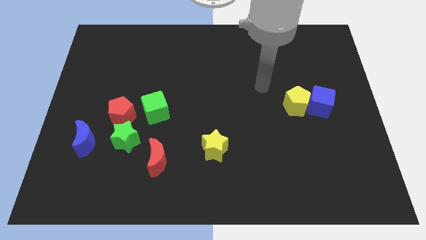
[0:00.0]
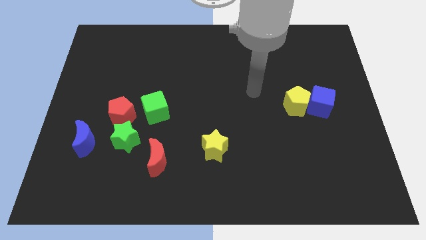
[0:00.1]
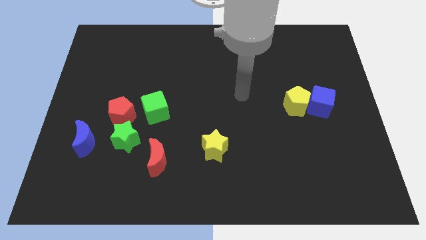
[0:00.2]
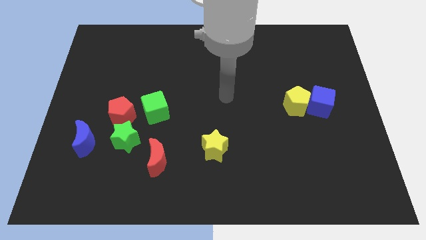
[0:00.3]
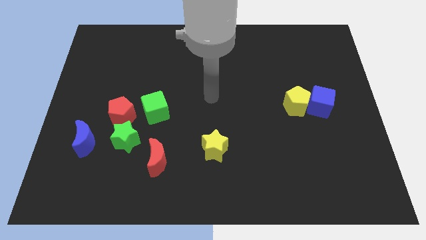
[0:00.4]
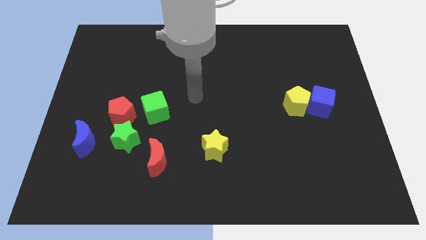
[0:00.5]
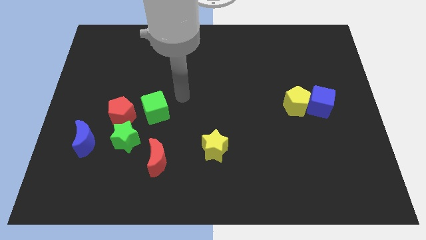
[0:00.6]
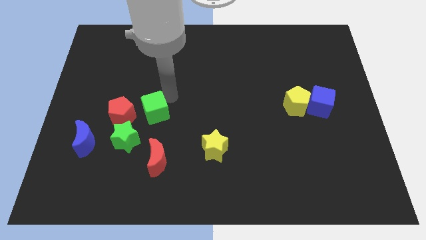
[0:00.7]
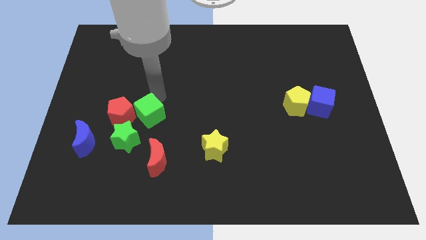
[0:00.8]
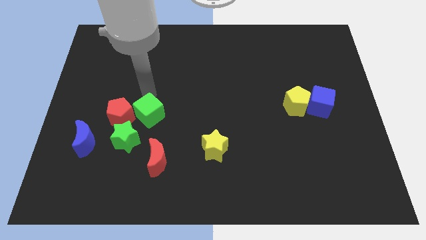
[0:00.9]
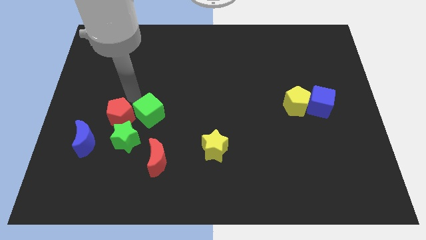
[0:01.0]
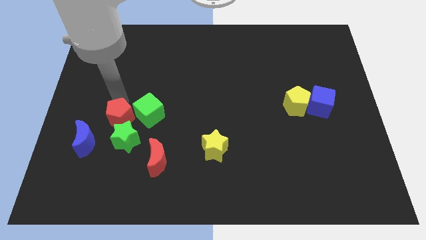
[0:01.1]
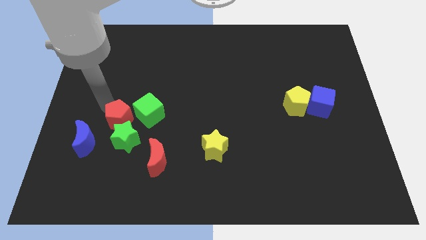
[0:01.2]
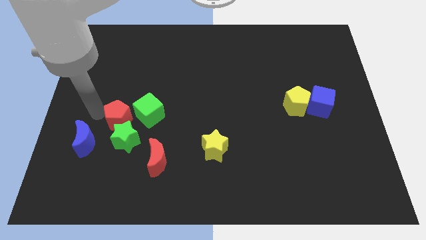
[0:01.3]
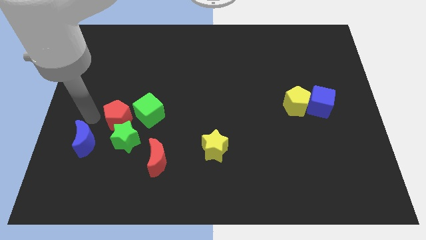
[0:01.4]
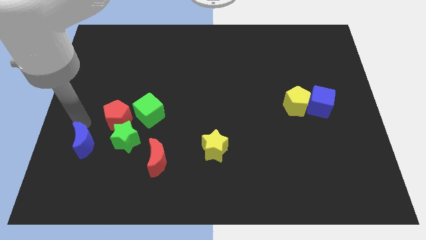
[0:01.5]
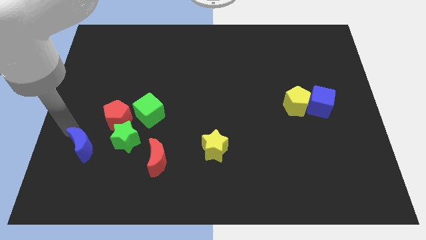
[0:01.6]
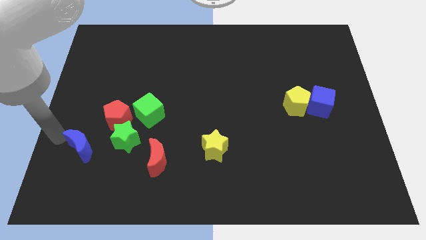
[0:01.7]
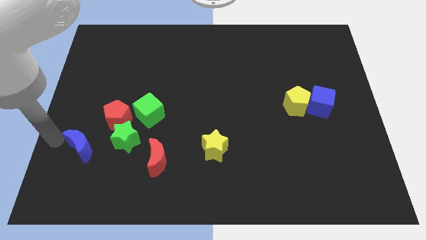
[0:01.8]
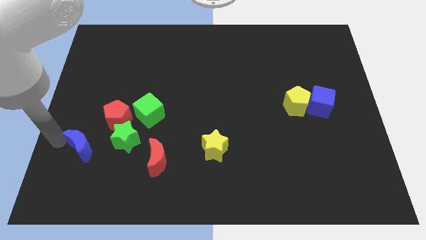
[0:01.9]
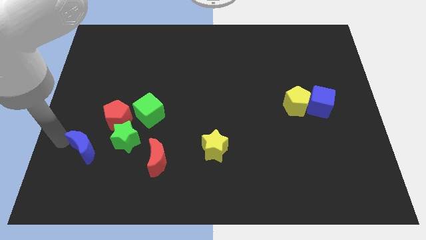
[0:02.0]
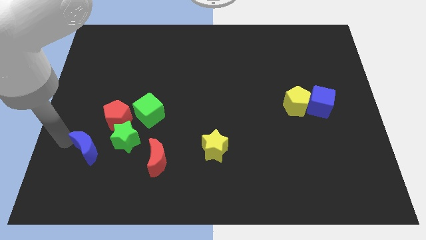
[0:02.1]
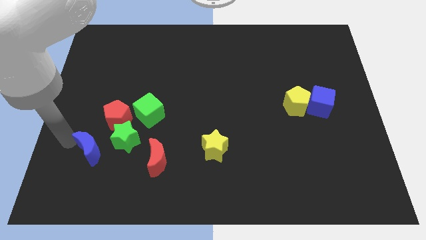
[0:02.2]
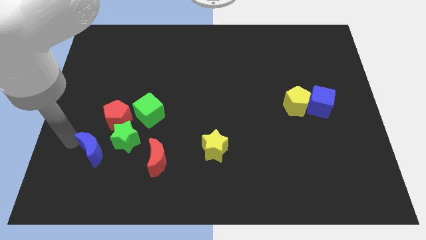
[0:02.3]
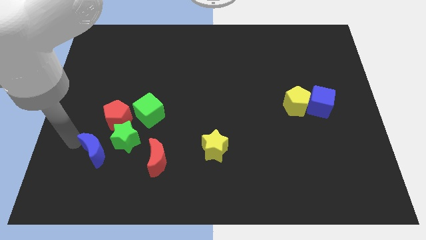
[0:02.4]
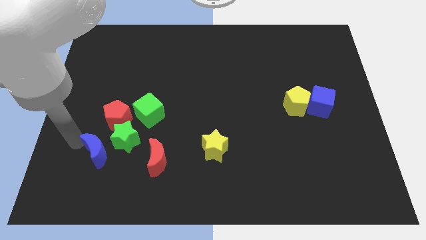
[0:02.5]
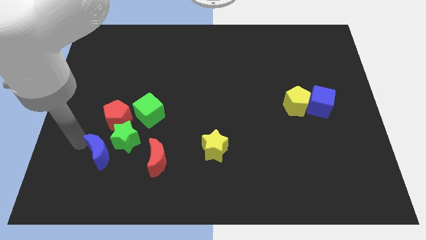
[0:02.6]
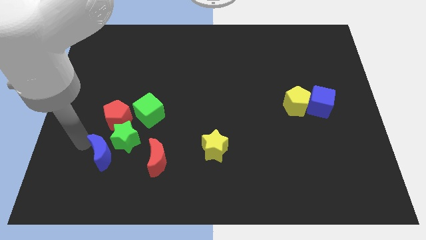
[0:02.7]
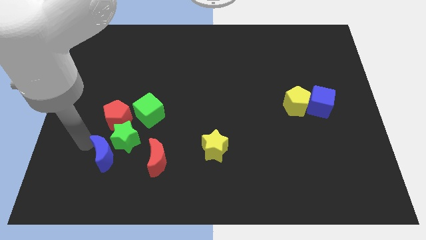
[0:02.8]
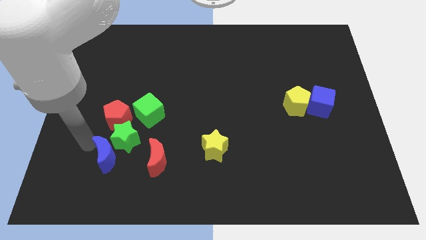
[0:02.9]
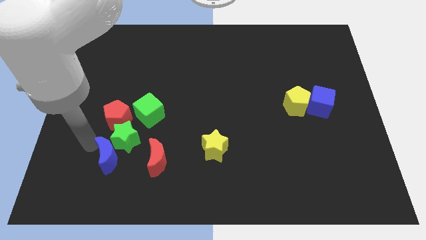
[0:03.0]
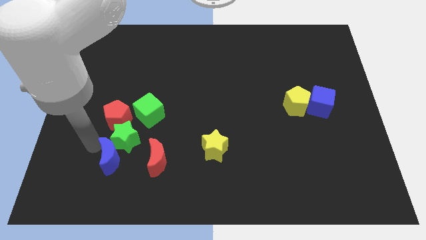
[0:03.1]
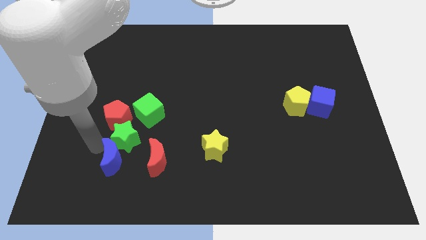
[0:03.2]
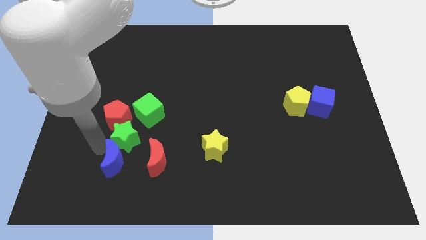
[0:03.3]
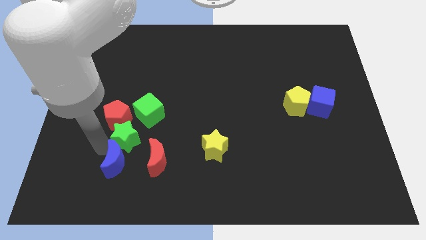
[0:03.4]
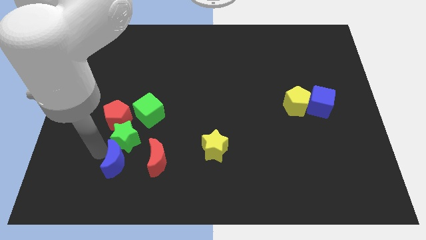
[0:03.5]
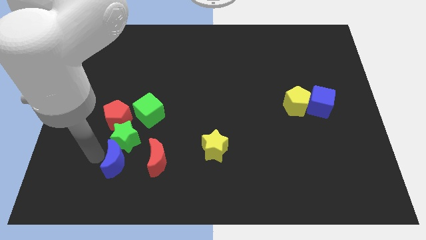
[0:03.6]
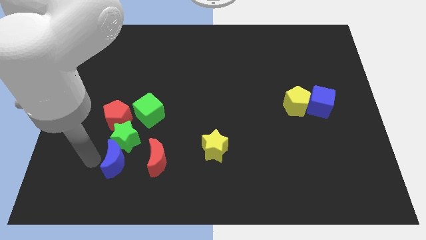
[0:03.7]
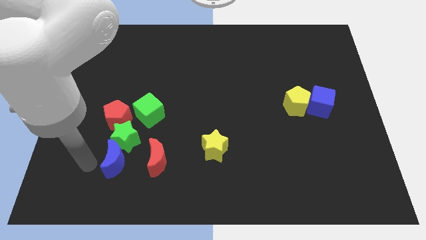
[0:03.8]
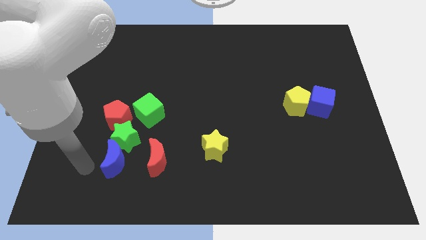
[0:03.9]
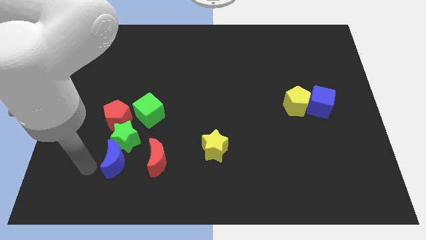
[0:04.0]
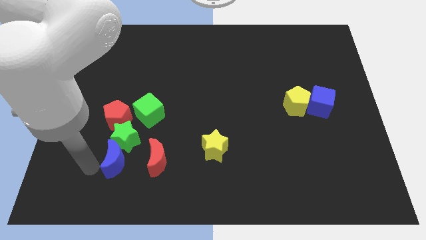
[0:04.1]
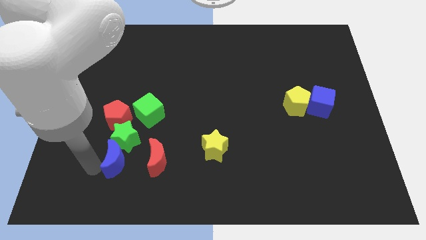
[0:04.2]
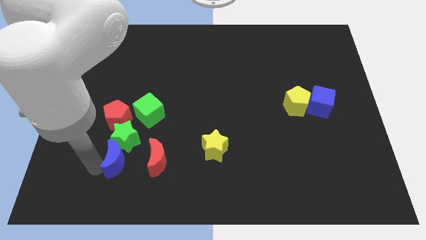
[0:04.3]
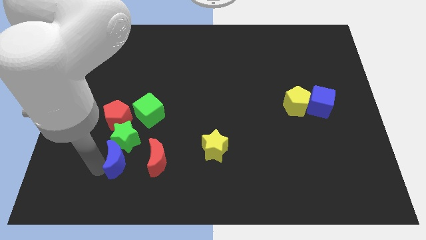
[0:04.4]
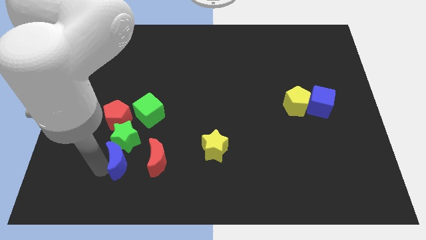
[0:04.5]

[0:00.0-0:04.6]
slightly push the blue moon to the right

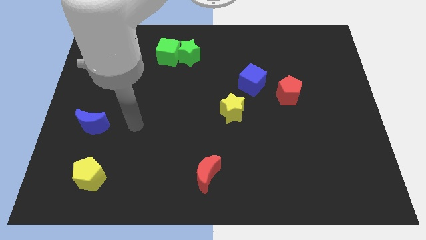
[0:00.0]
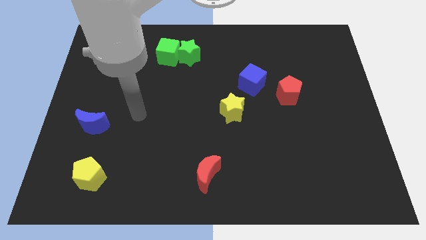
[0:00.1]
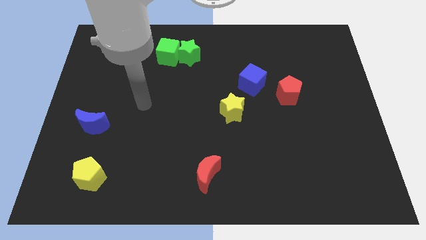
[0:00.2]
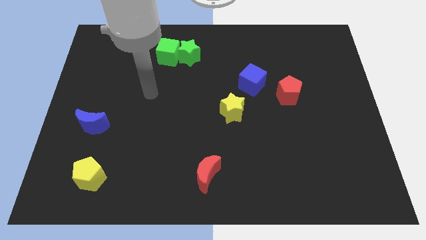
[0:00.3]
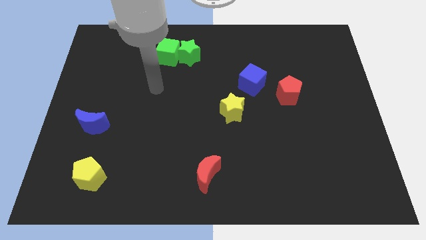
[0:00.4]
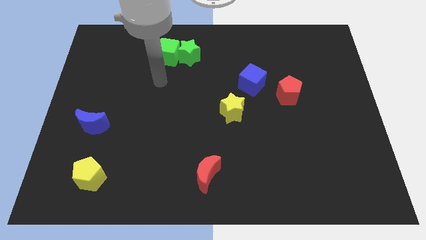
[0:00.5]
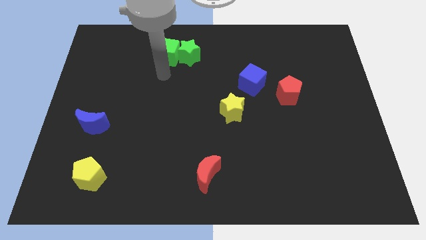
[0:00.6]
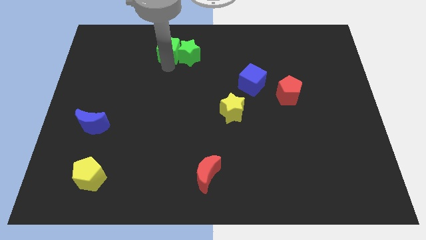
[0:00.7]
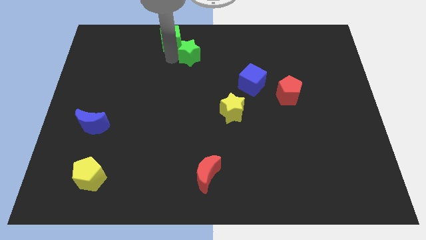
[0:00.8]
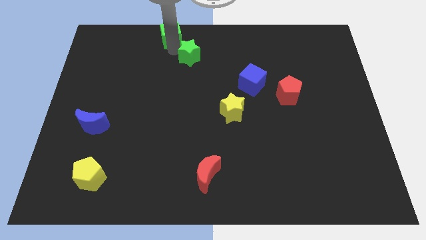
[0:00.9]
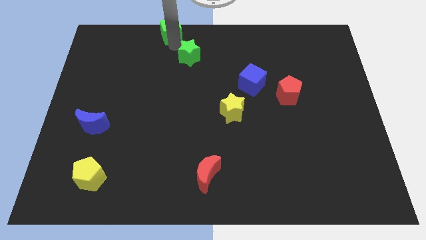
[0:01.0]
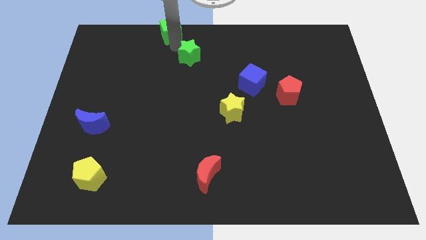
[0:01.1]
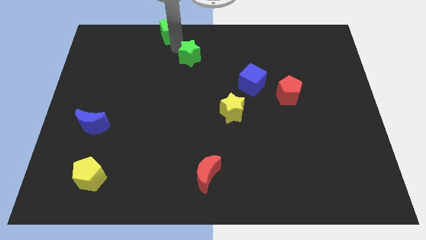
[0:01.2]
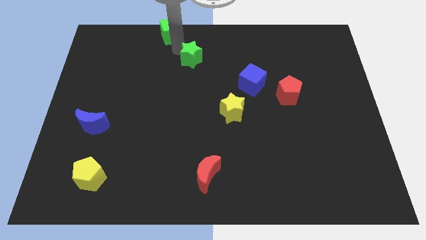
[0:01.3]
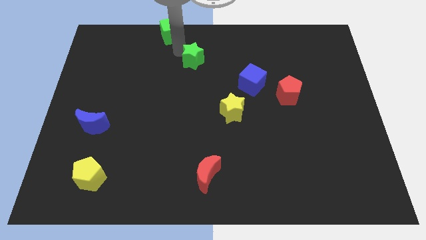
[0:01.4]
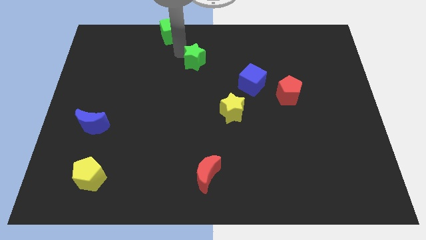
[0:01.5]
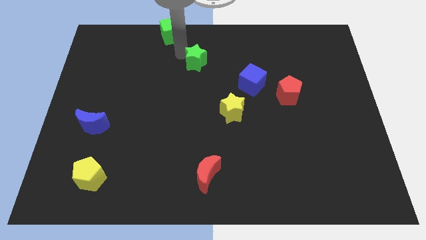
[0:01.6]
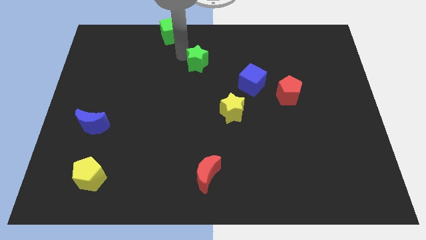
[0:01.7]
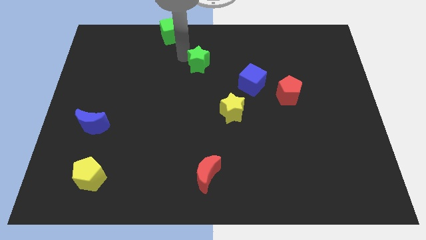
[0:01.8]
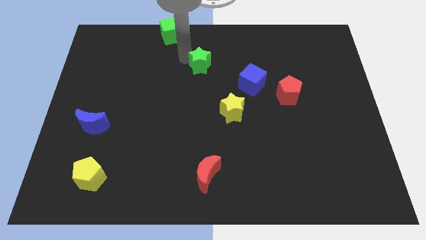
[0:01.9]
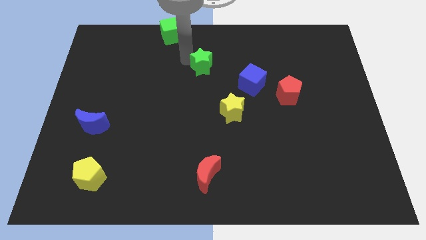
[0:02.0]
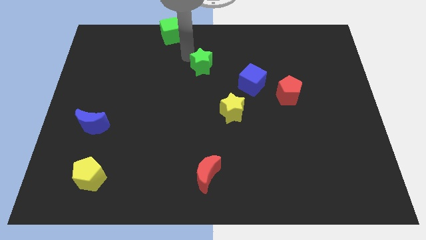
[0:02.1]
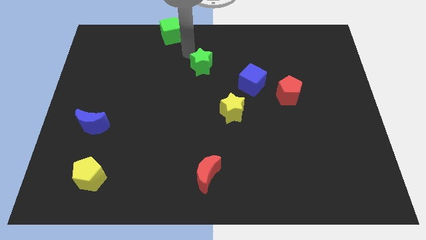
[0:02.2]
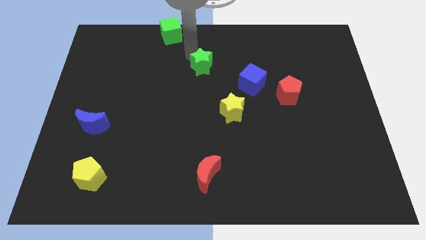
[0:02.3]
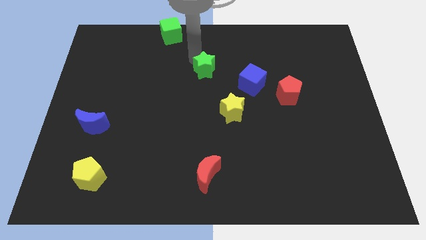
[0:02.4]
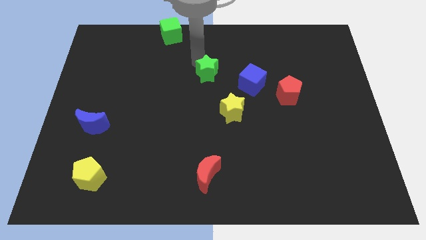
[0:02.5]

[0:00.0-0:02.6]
slightly slide the green star down and then to the right

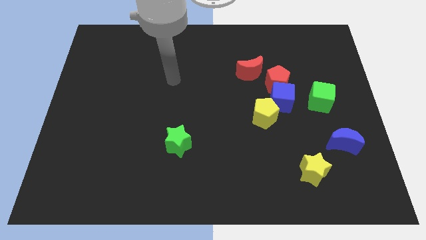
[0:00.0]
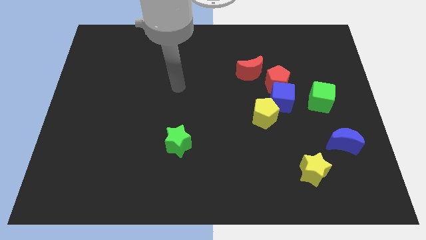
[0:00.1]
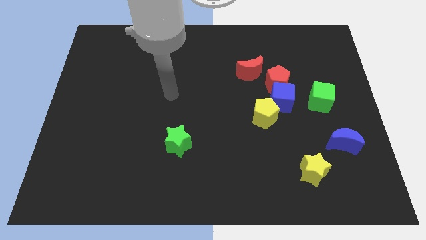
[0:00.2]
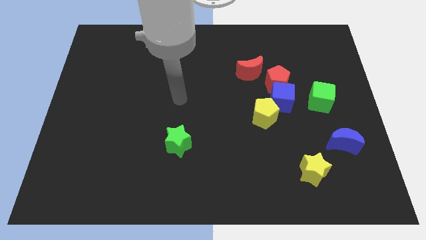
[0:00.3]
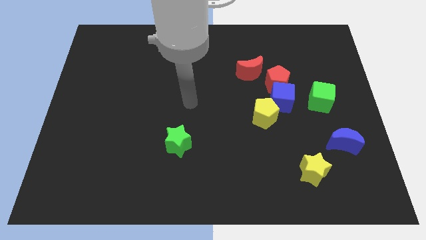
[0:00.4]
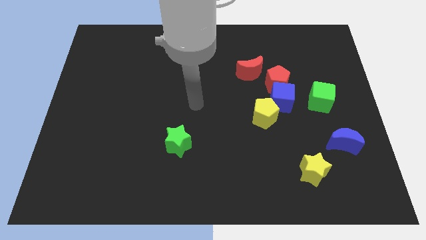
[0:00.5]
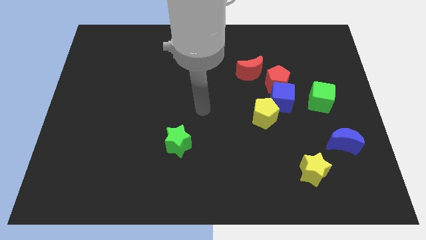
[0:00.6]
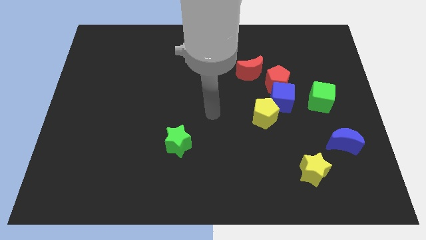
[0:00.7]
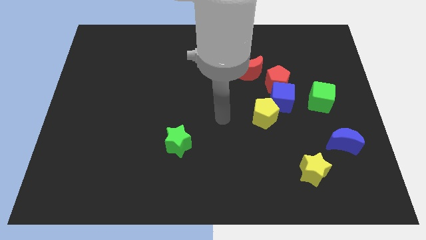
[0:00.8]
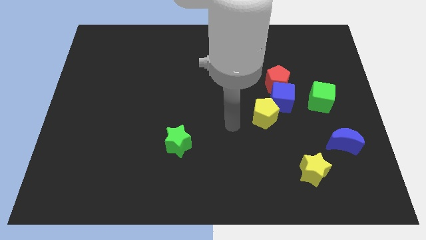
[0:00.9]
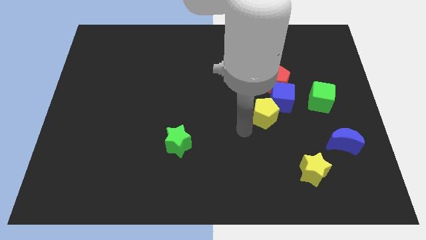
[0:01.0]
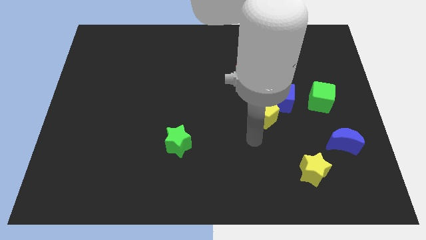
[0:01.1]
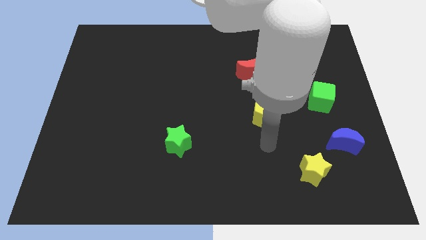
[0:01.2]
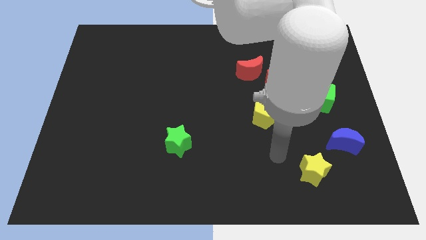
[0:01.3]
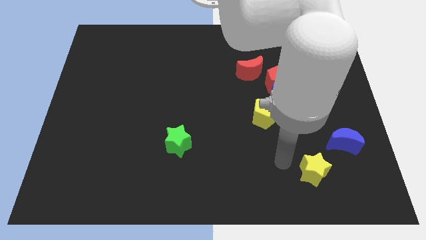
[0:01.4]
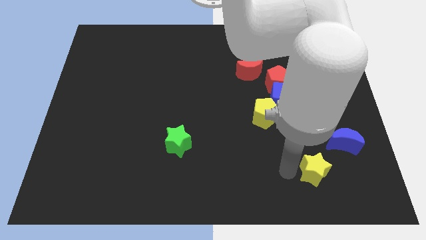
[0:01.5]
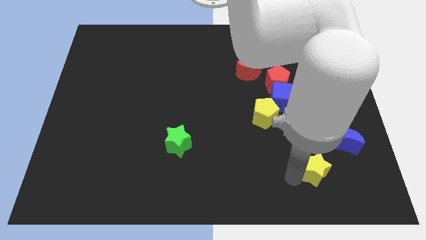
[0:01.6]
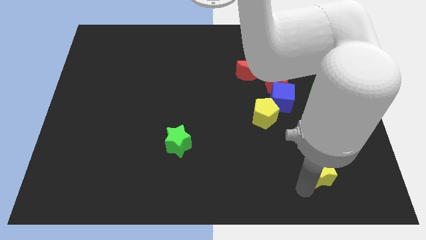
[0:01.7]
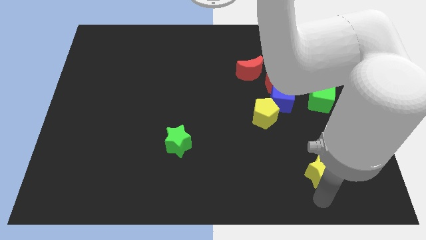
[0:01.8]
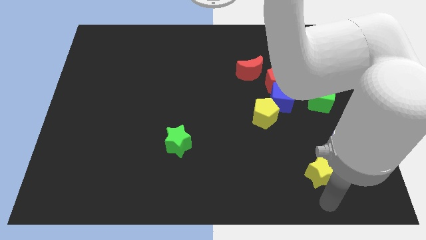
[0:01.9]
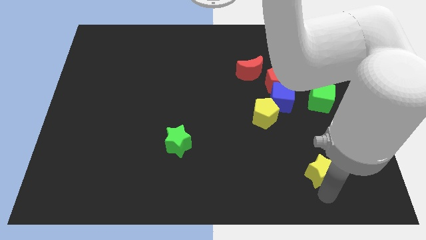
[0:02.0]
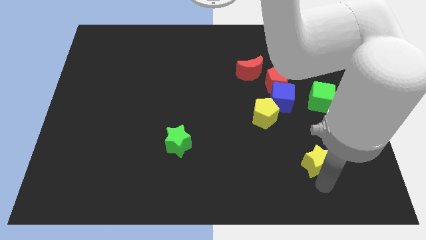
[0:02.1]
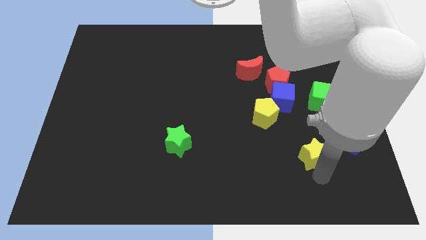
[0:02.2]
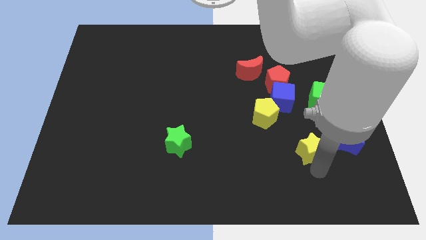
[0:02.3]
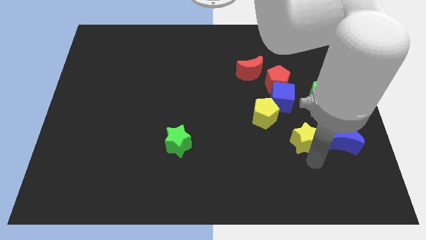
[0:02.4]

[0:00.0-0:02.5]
slightly slide the yellow star up
